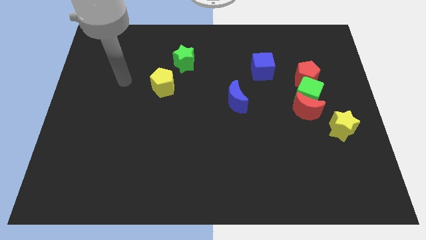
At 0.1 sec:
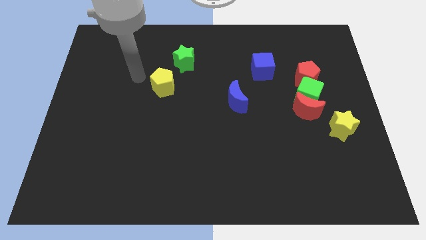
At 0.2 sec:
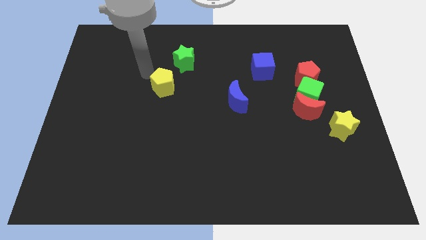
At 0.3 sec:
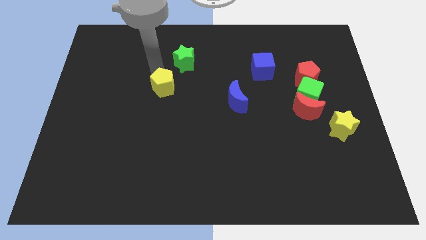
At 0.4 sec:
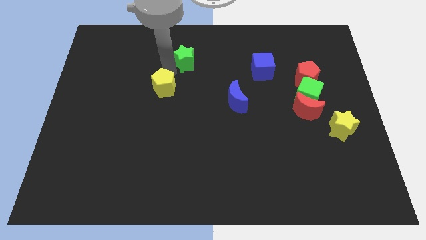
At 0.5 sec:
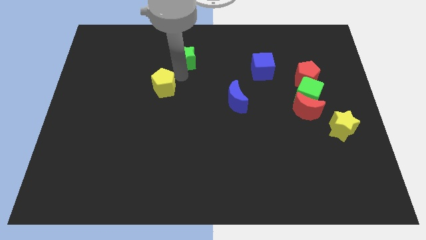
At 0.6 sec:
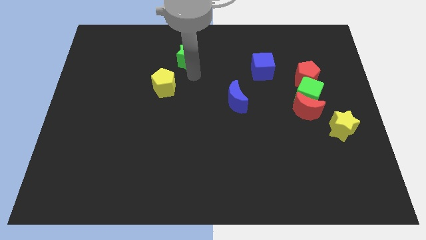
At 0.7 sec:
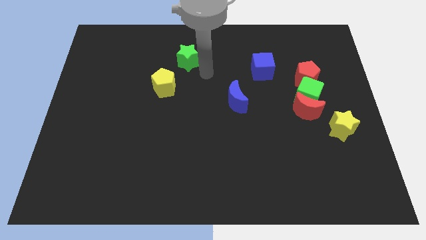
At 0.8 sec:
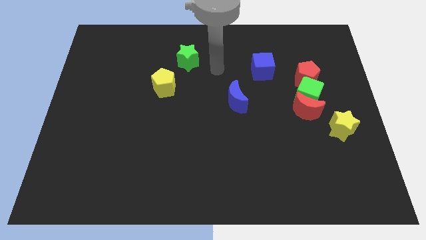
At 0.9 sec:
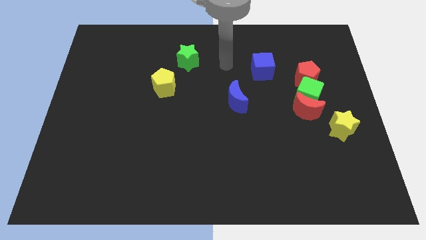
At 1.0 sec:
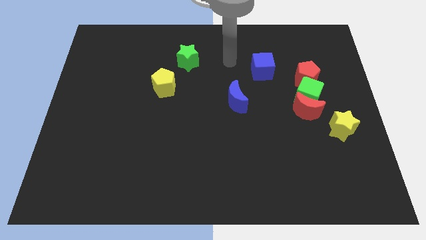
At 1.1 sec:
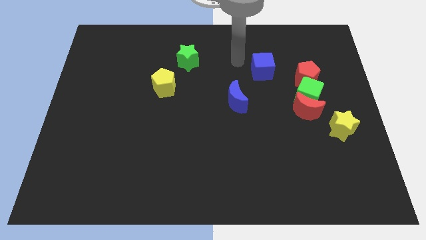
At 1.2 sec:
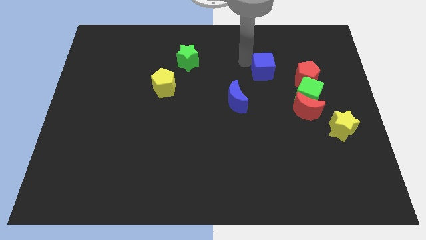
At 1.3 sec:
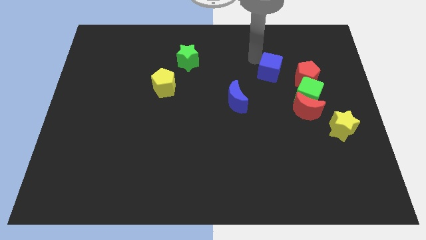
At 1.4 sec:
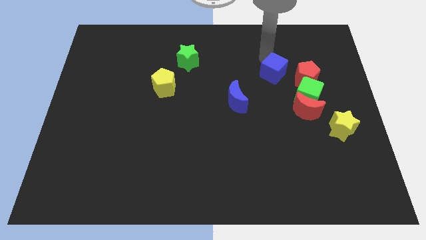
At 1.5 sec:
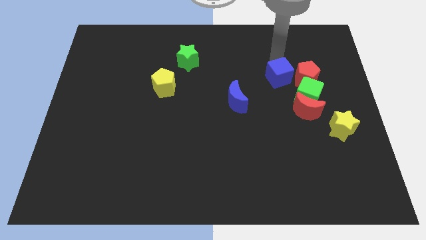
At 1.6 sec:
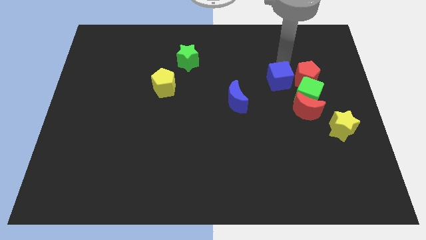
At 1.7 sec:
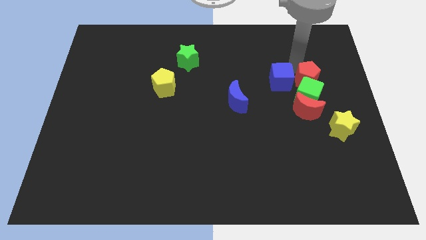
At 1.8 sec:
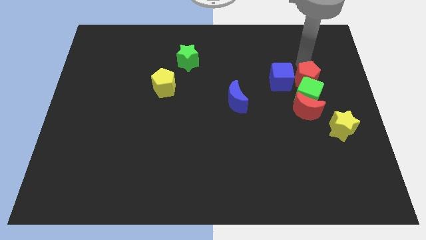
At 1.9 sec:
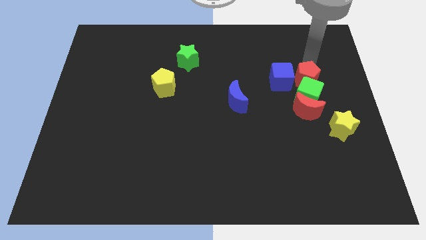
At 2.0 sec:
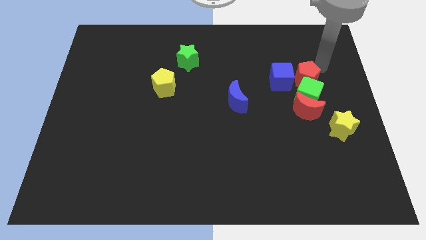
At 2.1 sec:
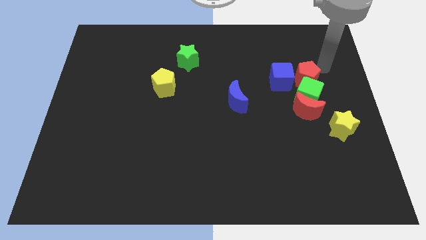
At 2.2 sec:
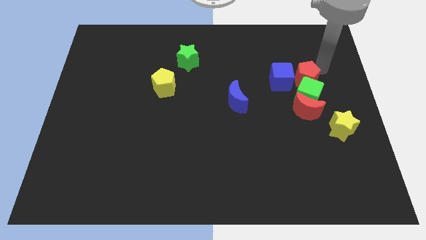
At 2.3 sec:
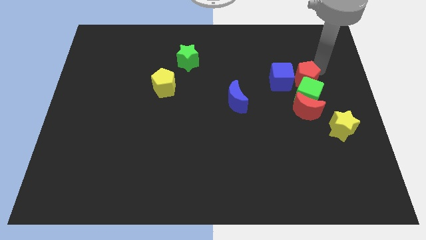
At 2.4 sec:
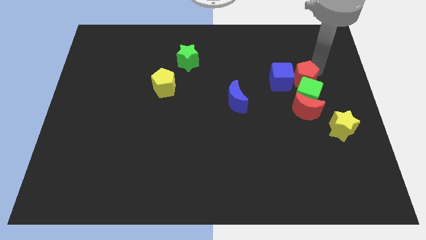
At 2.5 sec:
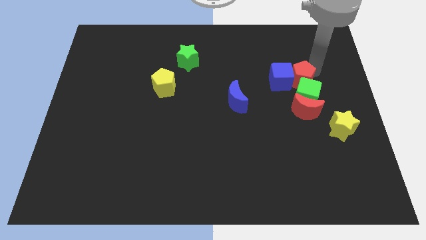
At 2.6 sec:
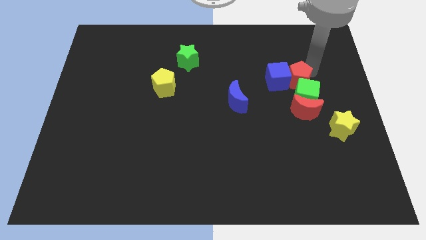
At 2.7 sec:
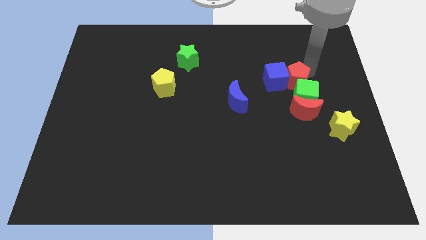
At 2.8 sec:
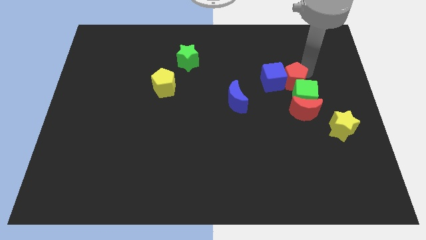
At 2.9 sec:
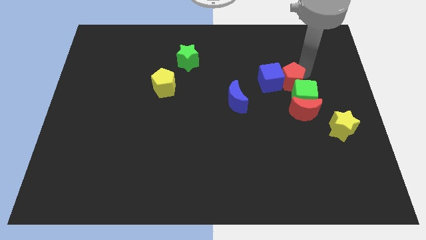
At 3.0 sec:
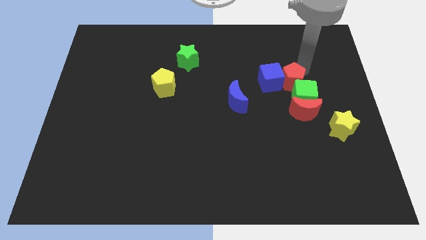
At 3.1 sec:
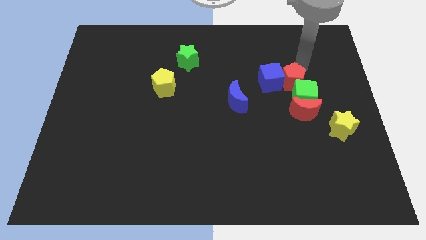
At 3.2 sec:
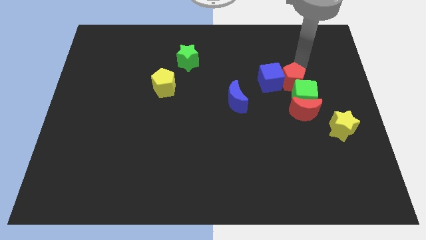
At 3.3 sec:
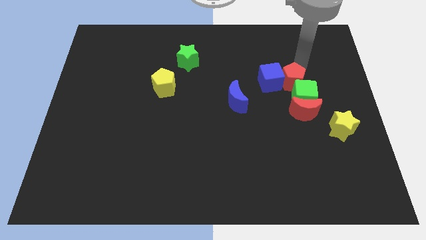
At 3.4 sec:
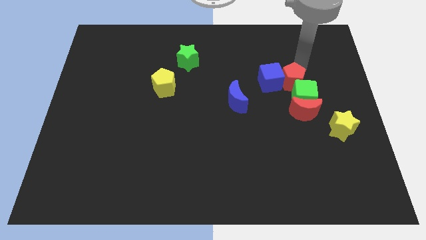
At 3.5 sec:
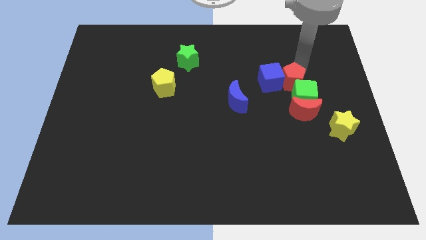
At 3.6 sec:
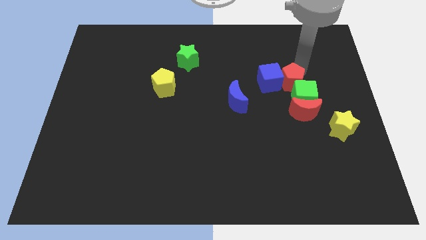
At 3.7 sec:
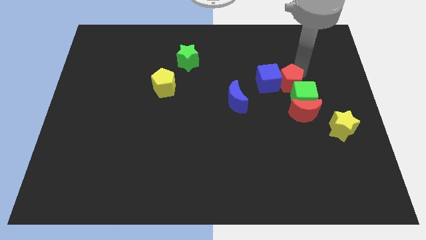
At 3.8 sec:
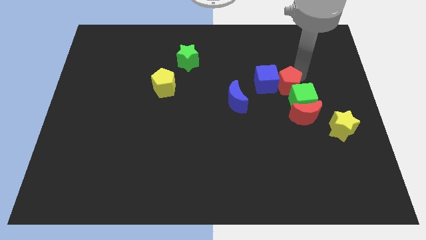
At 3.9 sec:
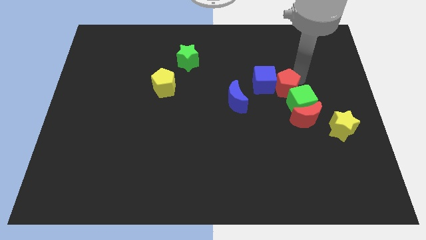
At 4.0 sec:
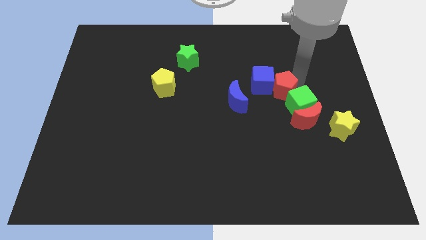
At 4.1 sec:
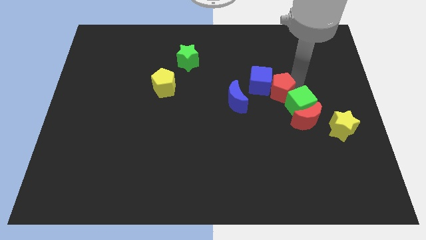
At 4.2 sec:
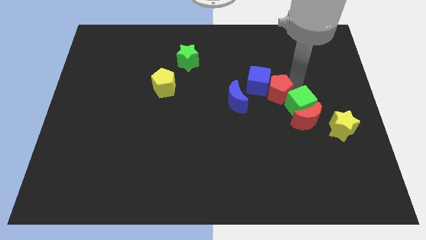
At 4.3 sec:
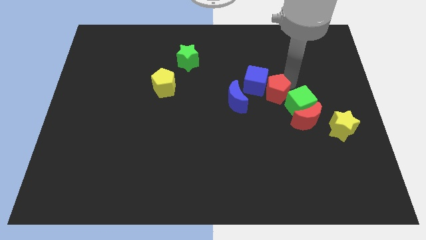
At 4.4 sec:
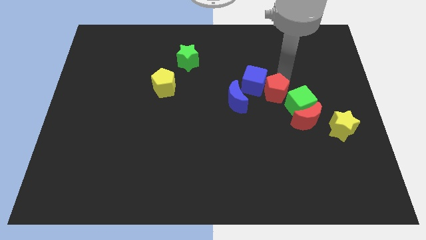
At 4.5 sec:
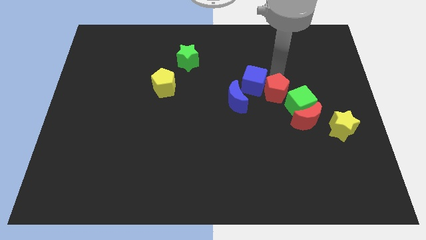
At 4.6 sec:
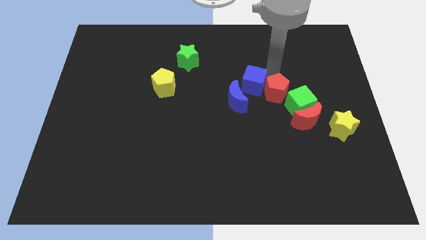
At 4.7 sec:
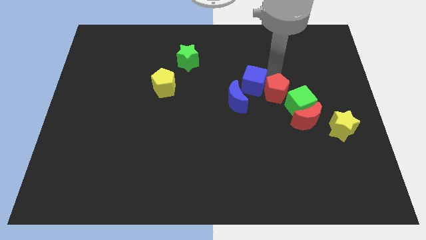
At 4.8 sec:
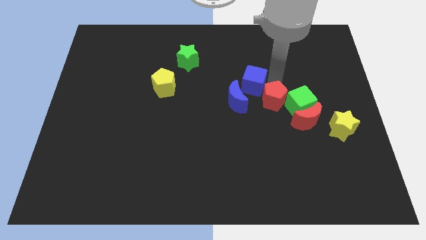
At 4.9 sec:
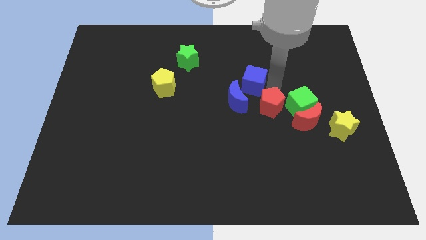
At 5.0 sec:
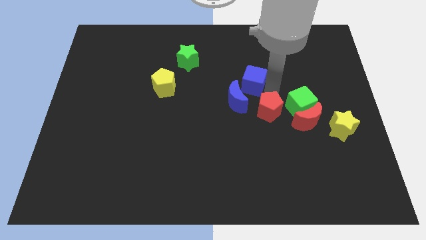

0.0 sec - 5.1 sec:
move the red pentagon to the bottom left side of the green cube

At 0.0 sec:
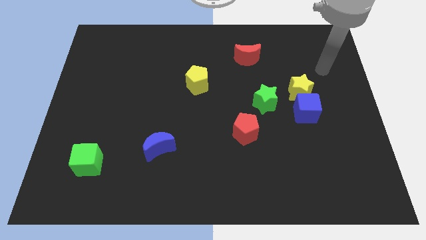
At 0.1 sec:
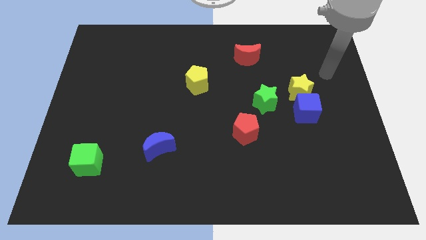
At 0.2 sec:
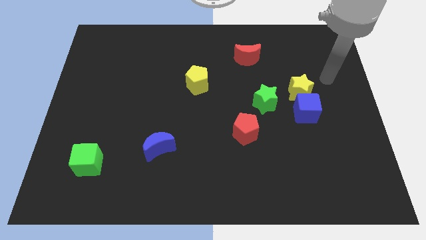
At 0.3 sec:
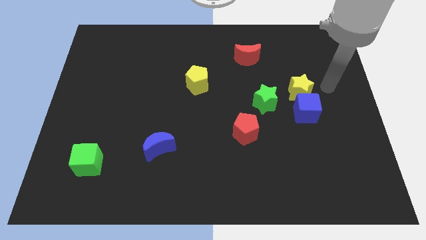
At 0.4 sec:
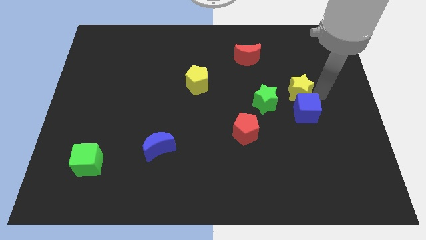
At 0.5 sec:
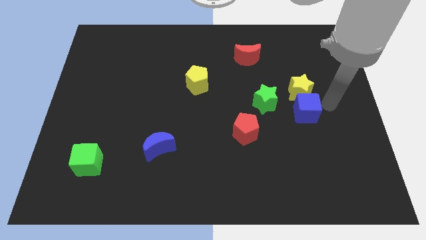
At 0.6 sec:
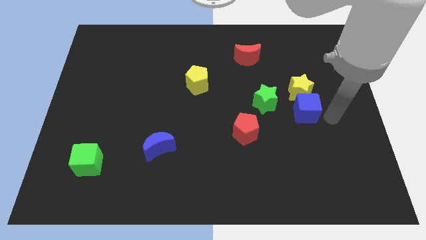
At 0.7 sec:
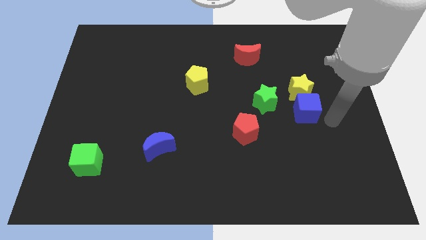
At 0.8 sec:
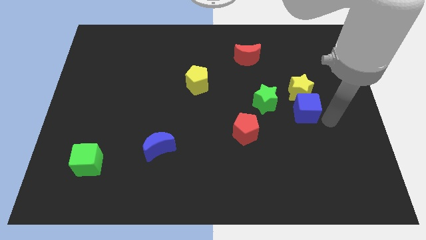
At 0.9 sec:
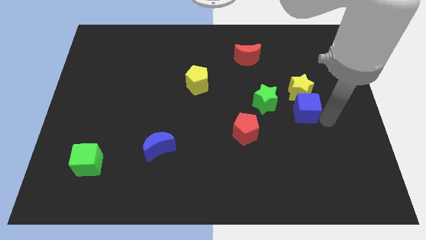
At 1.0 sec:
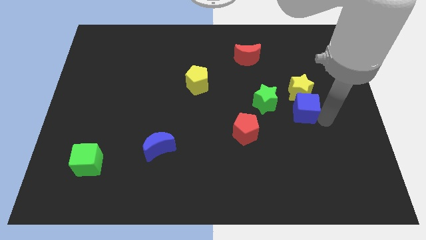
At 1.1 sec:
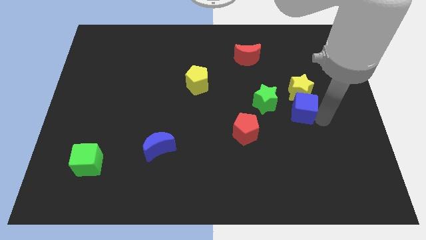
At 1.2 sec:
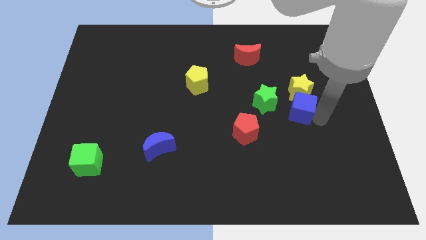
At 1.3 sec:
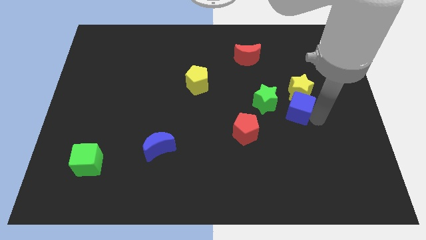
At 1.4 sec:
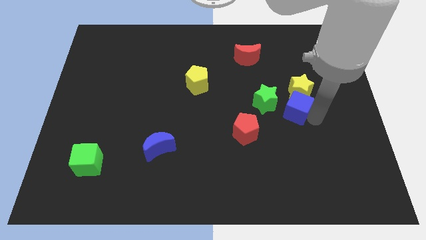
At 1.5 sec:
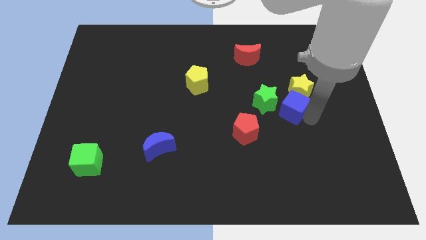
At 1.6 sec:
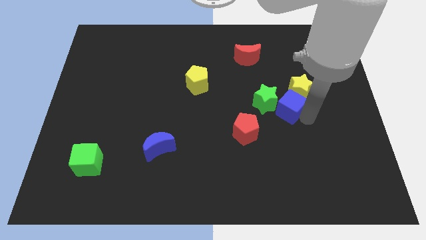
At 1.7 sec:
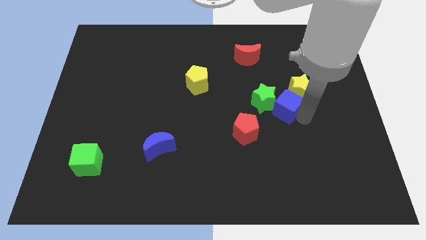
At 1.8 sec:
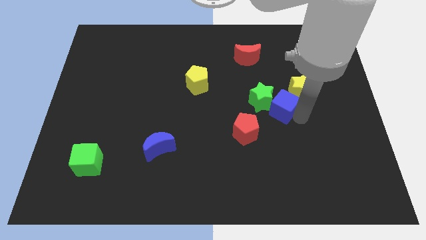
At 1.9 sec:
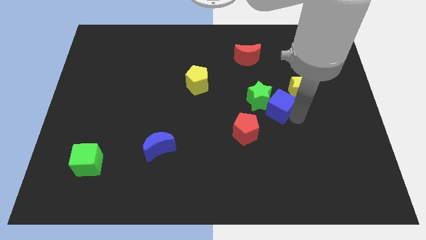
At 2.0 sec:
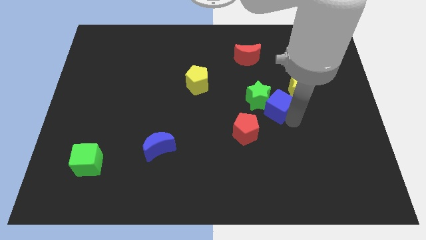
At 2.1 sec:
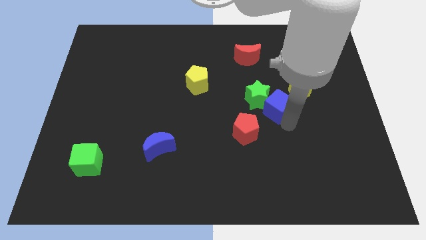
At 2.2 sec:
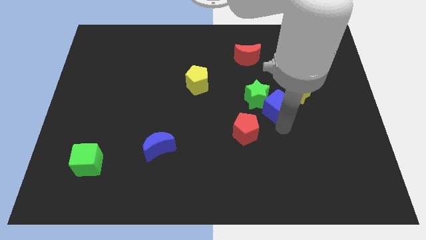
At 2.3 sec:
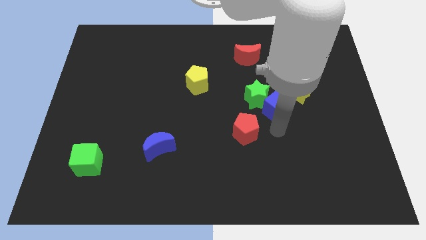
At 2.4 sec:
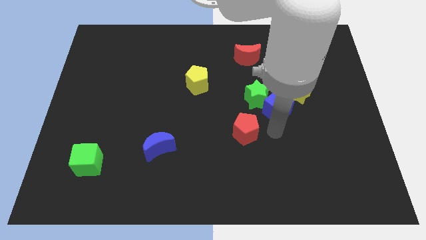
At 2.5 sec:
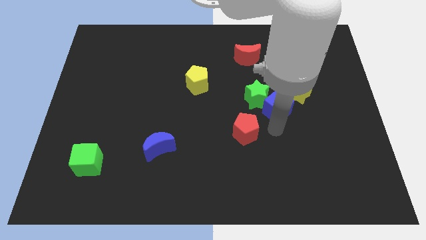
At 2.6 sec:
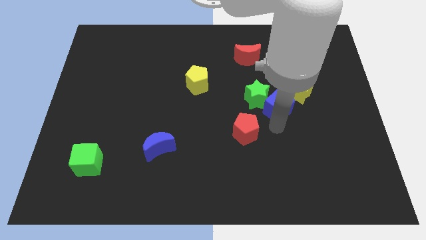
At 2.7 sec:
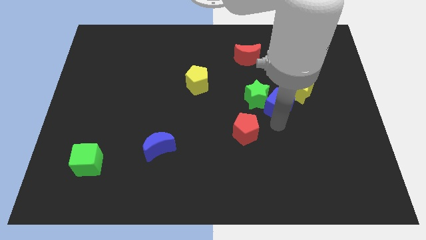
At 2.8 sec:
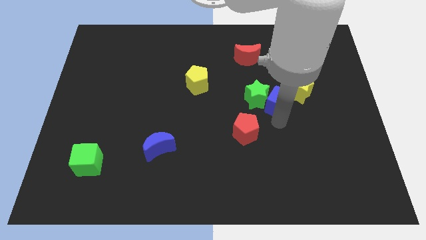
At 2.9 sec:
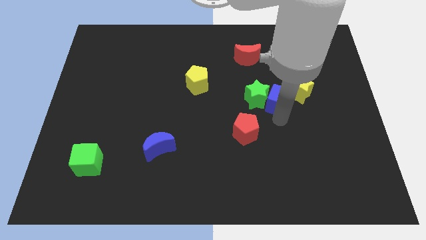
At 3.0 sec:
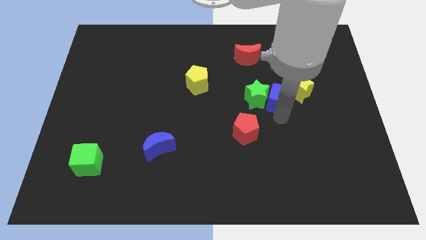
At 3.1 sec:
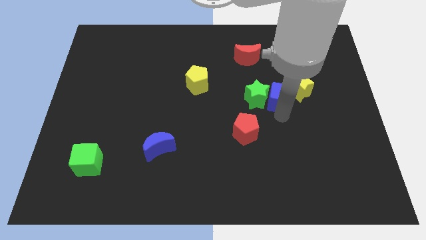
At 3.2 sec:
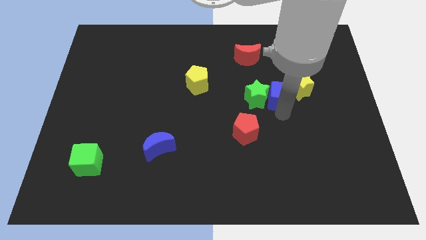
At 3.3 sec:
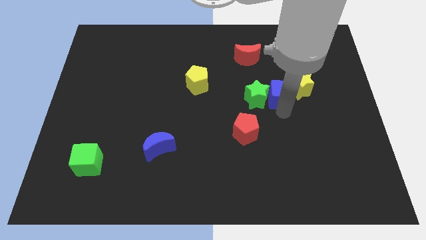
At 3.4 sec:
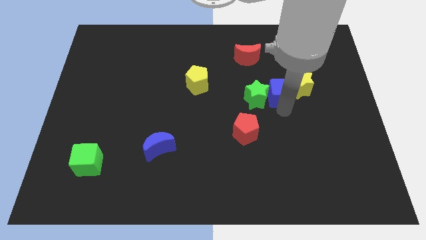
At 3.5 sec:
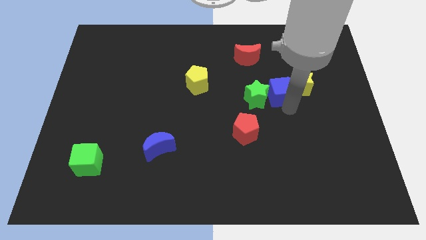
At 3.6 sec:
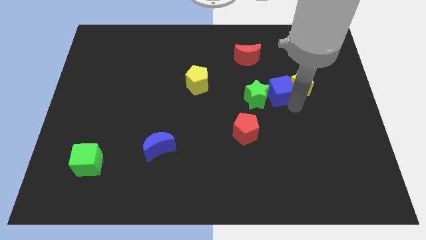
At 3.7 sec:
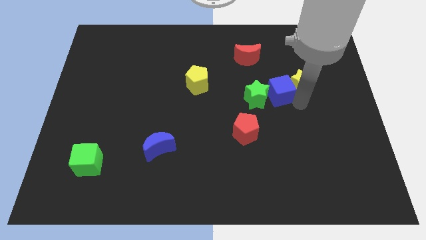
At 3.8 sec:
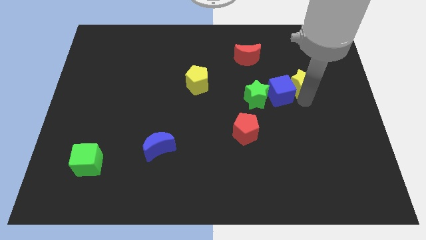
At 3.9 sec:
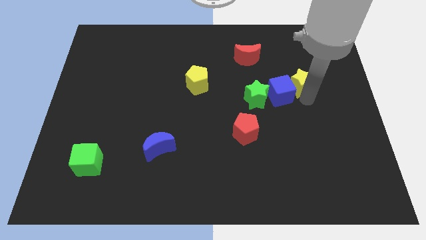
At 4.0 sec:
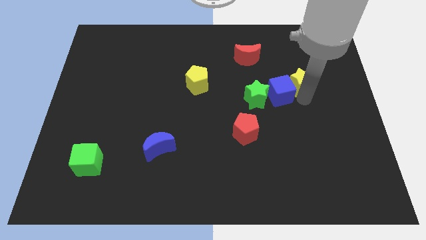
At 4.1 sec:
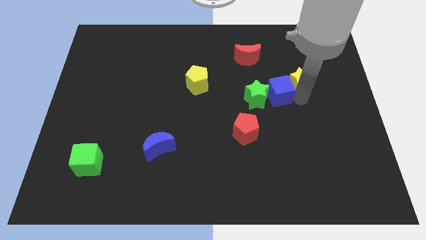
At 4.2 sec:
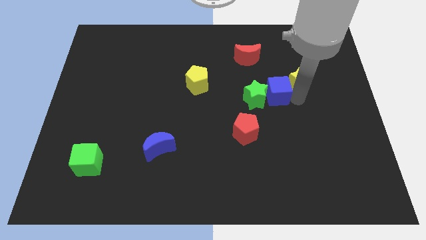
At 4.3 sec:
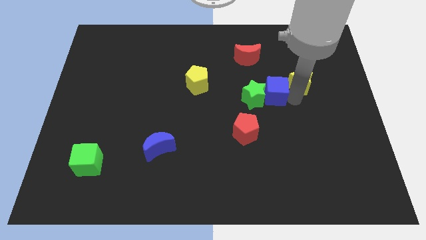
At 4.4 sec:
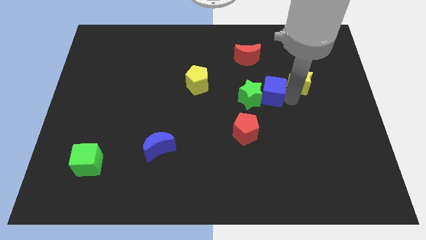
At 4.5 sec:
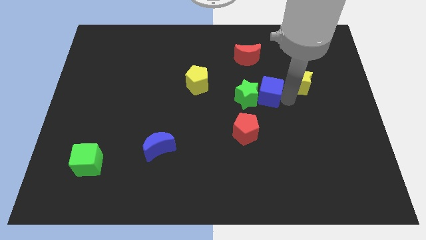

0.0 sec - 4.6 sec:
move the blue cube below the red moon
